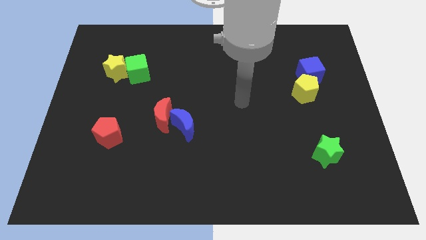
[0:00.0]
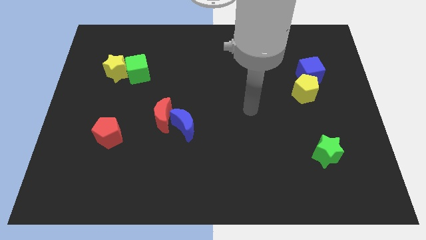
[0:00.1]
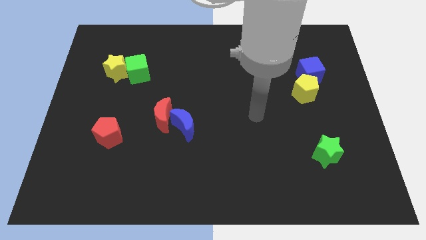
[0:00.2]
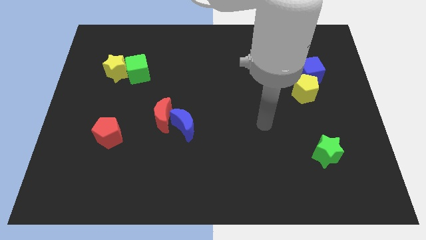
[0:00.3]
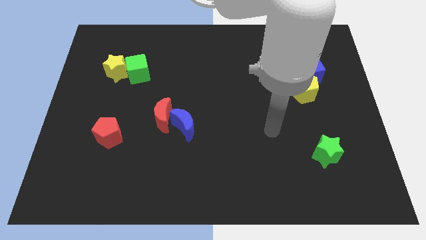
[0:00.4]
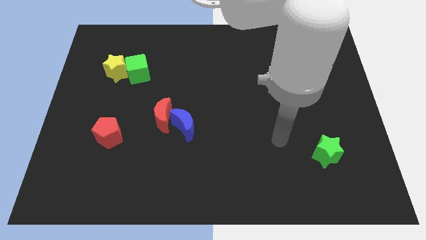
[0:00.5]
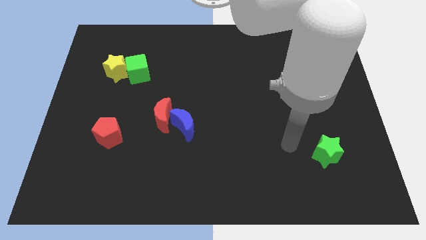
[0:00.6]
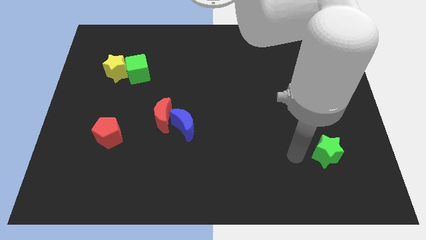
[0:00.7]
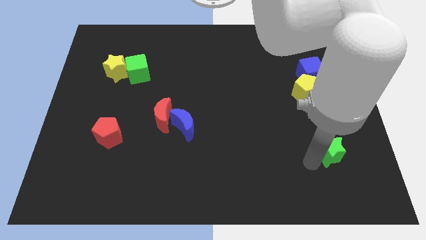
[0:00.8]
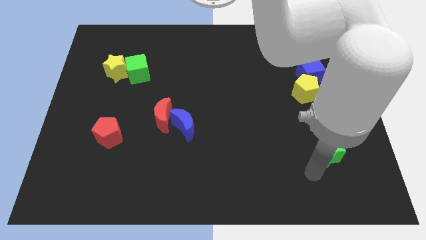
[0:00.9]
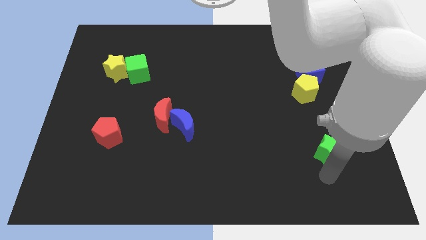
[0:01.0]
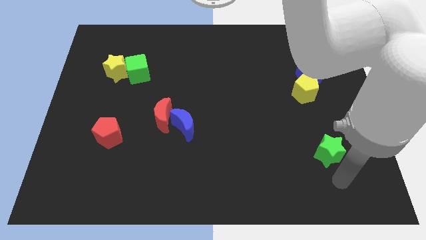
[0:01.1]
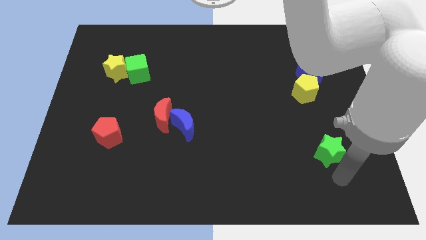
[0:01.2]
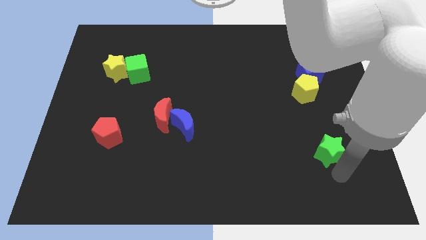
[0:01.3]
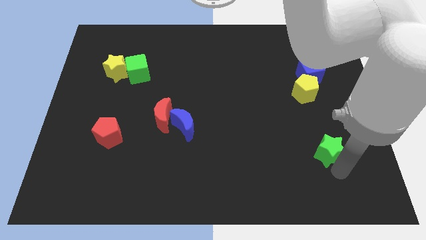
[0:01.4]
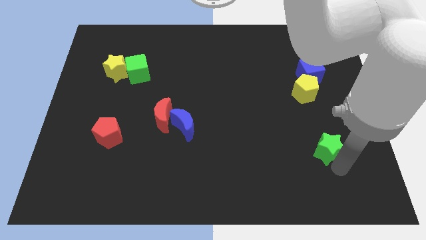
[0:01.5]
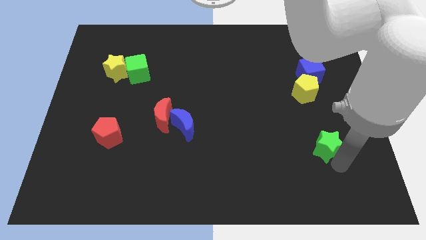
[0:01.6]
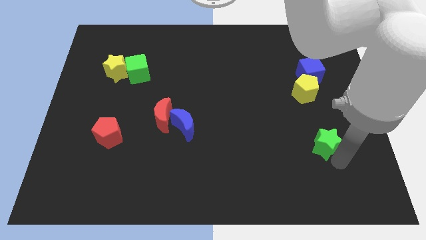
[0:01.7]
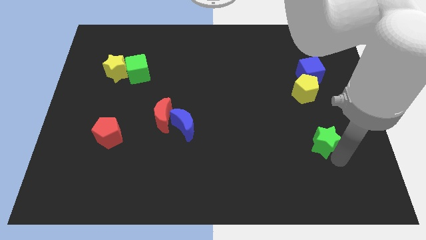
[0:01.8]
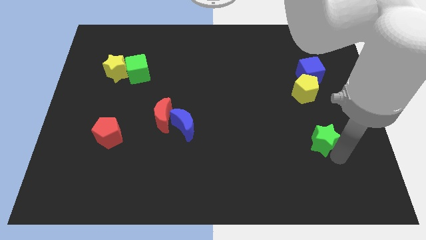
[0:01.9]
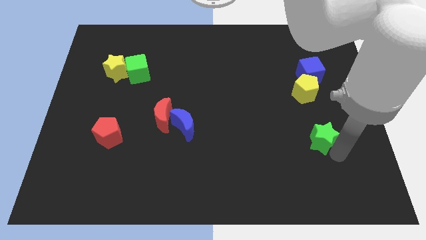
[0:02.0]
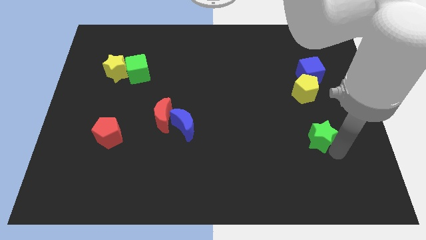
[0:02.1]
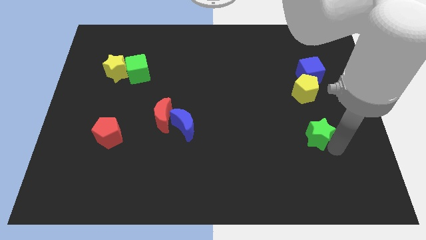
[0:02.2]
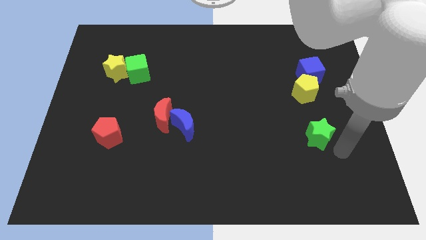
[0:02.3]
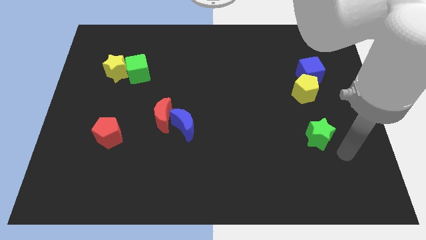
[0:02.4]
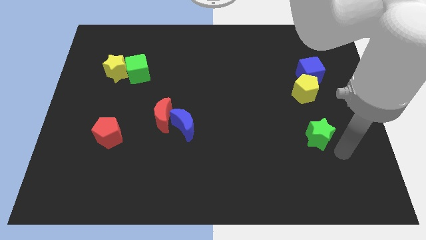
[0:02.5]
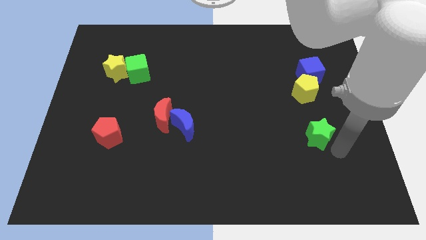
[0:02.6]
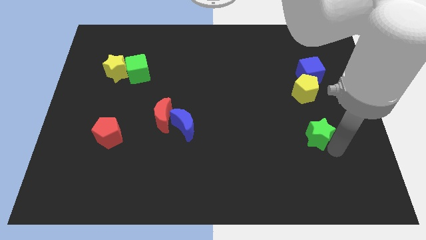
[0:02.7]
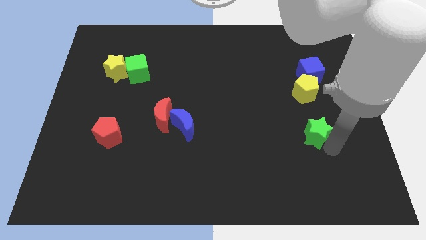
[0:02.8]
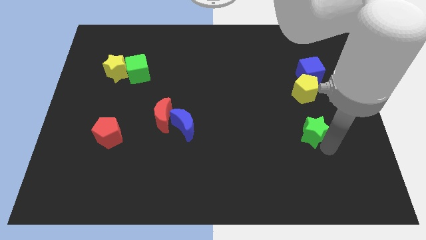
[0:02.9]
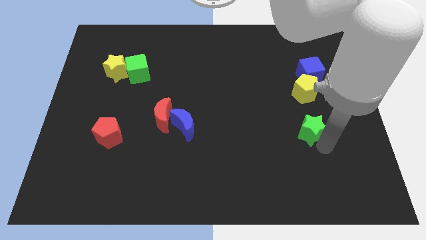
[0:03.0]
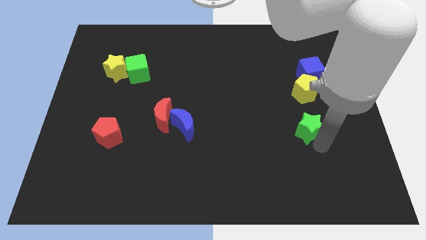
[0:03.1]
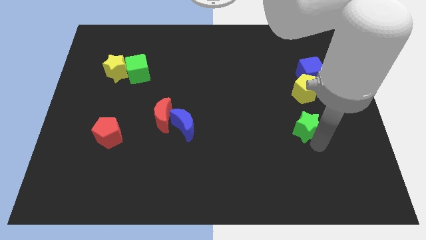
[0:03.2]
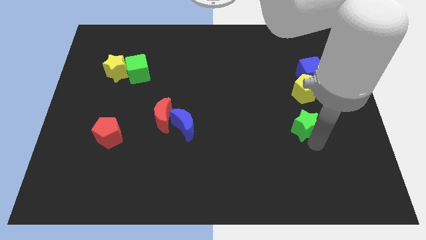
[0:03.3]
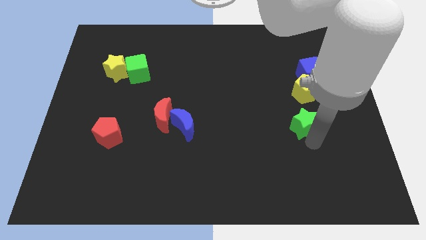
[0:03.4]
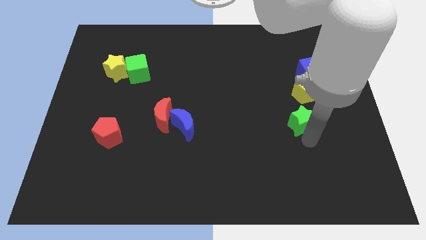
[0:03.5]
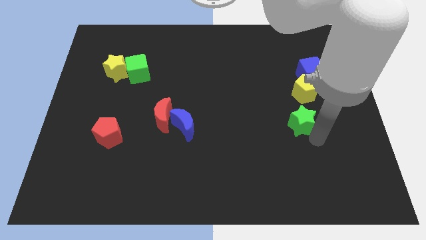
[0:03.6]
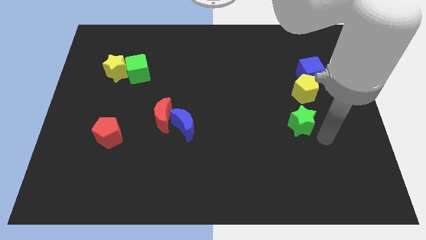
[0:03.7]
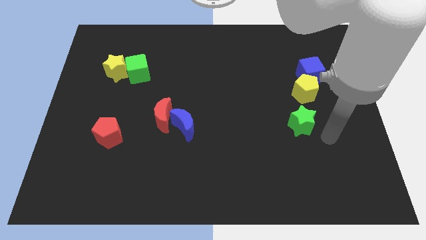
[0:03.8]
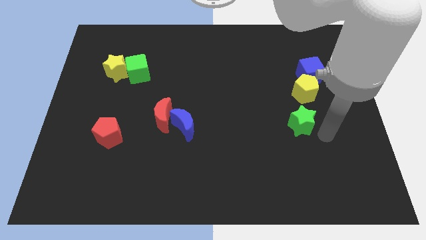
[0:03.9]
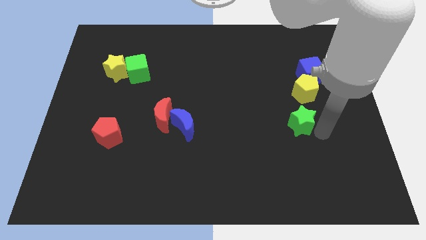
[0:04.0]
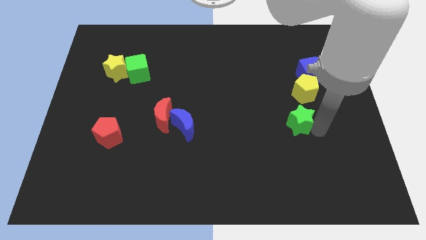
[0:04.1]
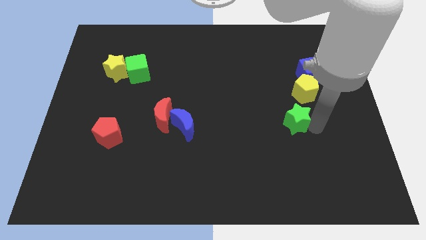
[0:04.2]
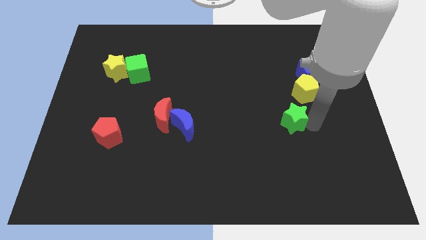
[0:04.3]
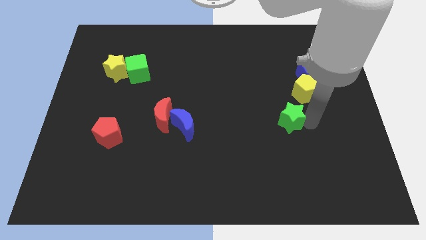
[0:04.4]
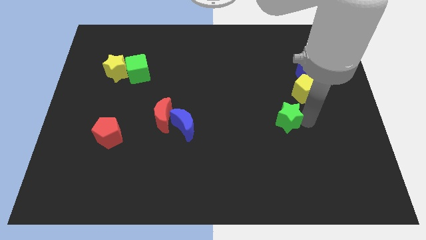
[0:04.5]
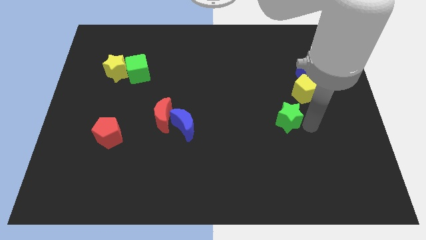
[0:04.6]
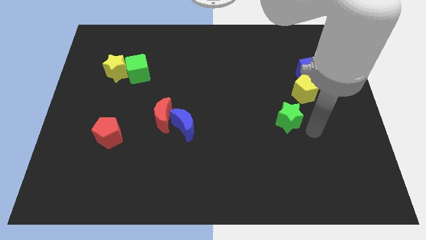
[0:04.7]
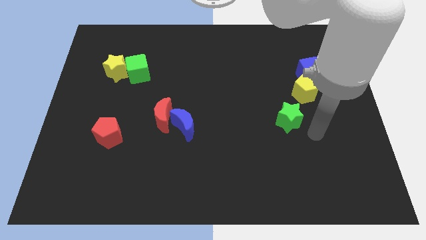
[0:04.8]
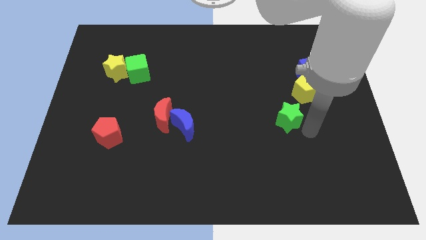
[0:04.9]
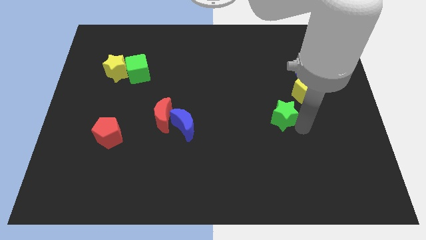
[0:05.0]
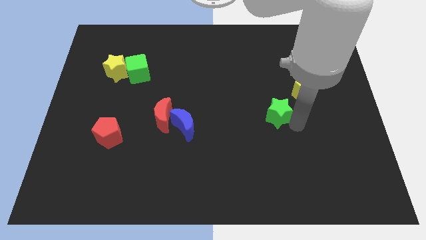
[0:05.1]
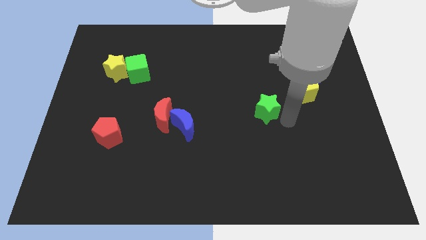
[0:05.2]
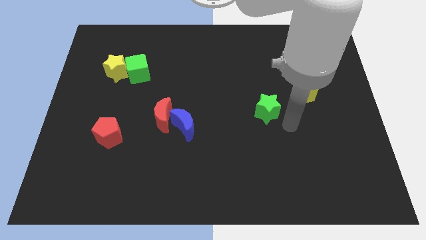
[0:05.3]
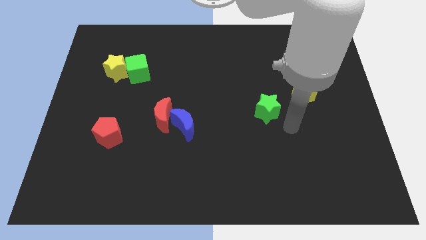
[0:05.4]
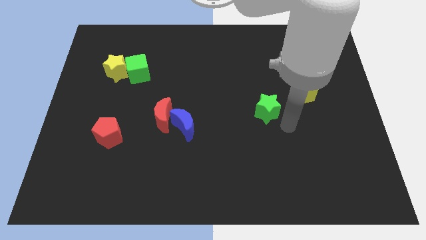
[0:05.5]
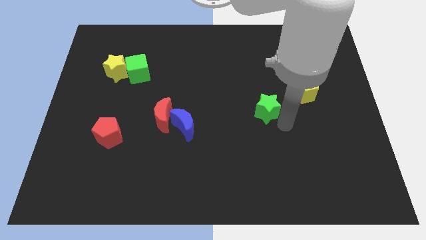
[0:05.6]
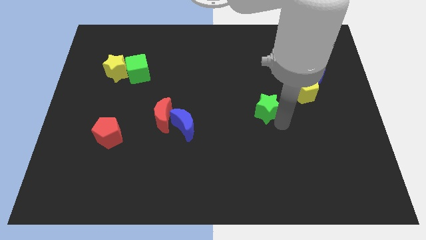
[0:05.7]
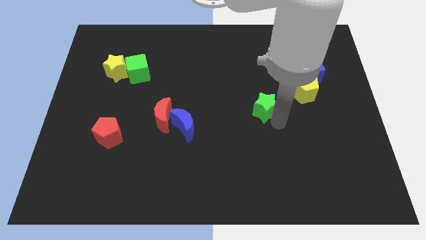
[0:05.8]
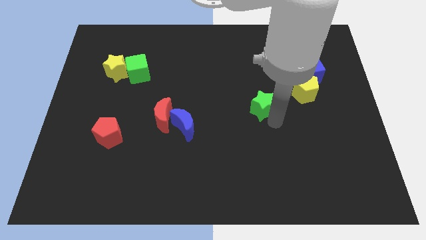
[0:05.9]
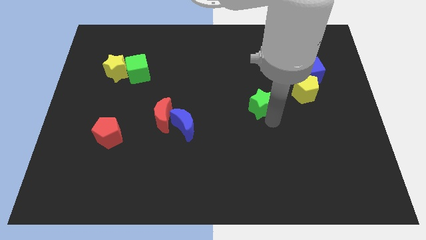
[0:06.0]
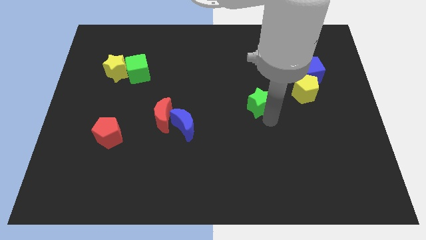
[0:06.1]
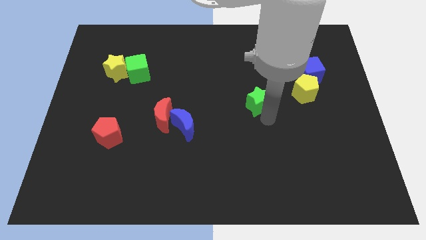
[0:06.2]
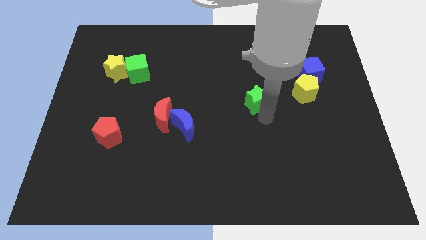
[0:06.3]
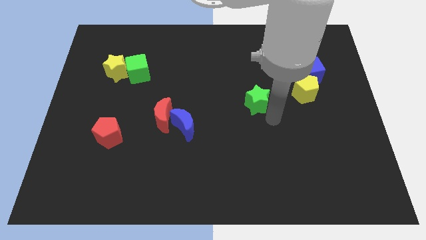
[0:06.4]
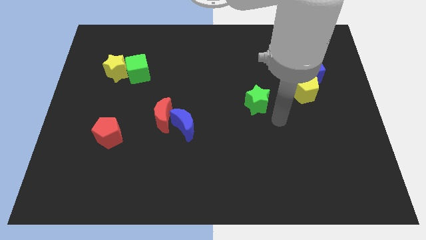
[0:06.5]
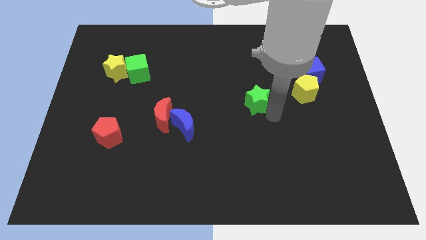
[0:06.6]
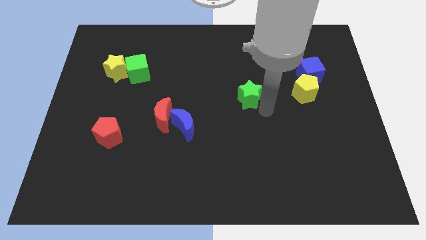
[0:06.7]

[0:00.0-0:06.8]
push the green star upwards and left diagonally

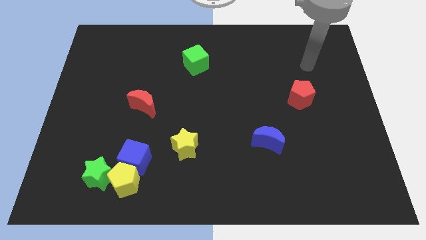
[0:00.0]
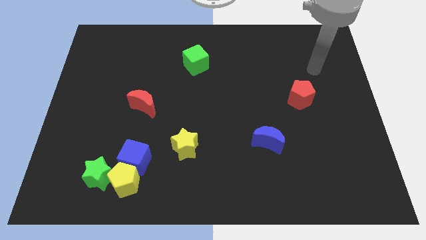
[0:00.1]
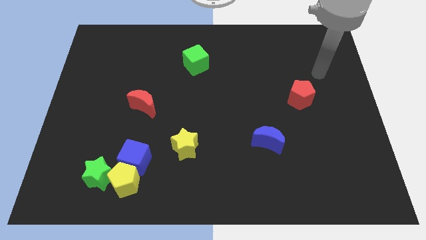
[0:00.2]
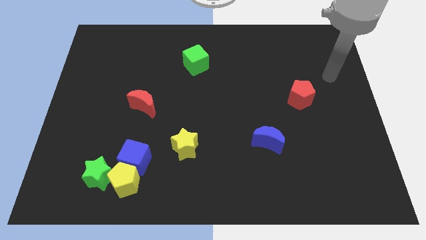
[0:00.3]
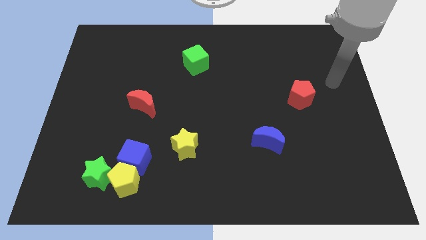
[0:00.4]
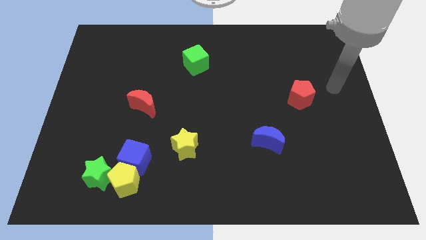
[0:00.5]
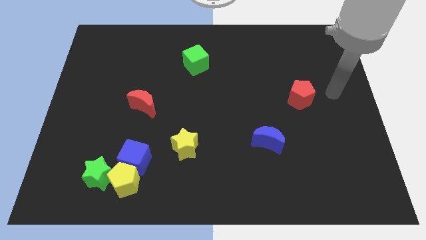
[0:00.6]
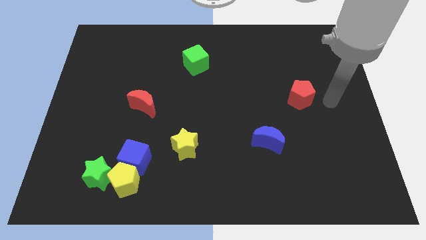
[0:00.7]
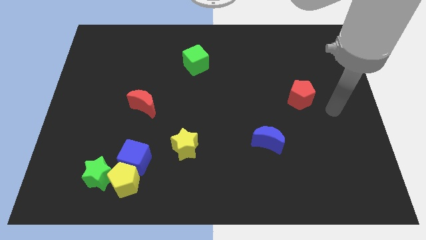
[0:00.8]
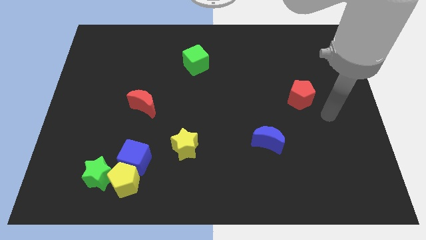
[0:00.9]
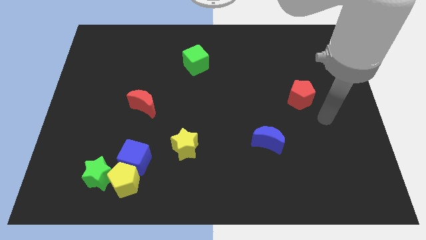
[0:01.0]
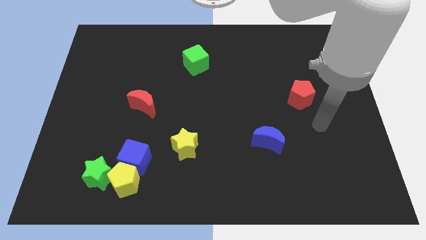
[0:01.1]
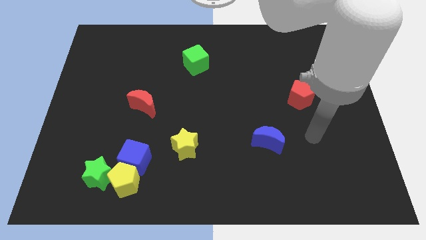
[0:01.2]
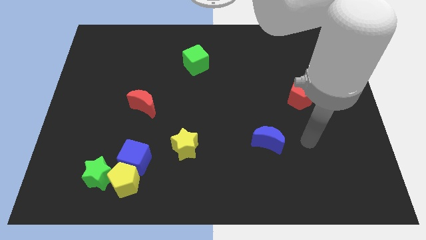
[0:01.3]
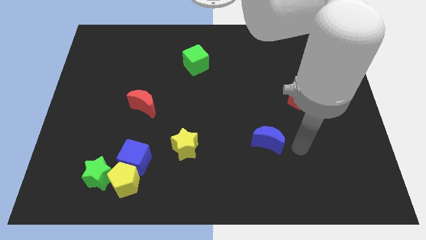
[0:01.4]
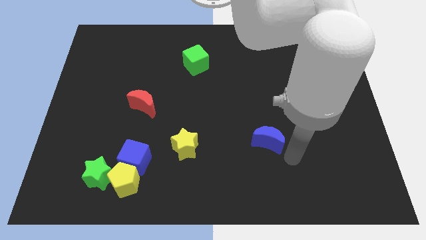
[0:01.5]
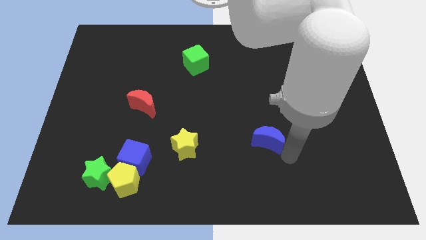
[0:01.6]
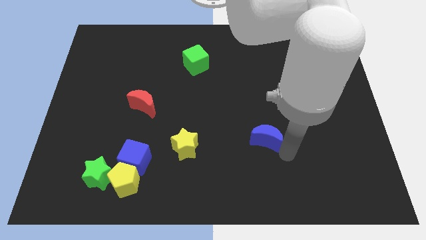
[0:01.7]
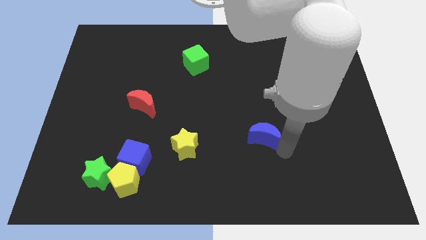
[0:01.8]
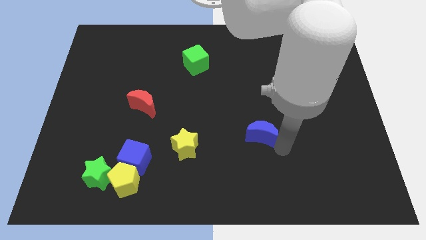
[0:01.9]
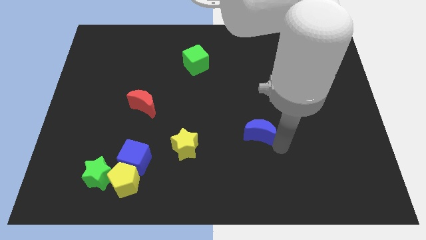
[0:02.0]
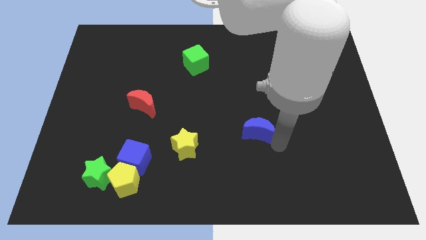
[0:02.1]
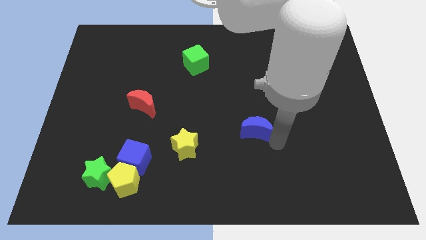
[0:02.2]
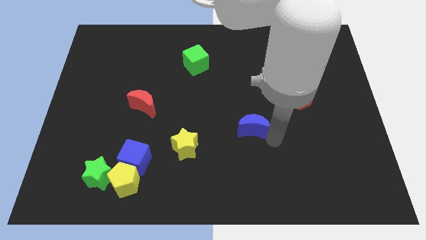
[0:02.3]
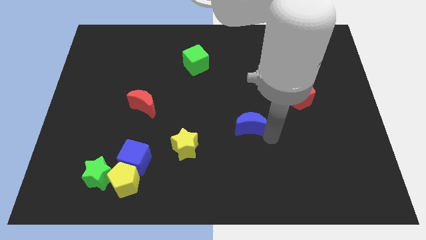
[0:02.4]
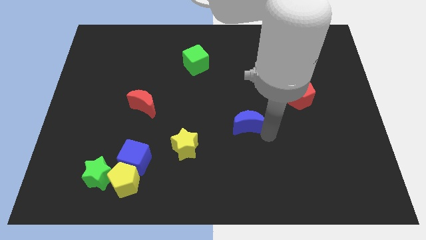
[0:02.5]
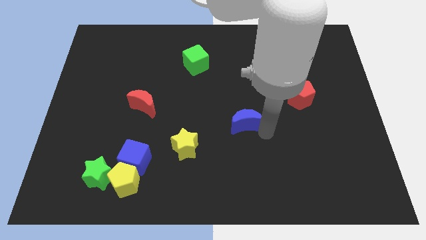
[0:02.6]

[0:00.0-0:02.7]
slide the blue moon upwards and left diagonally slightly
